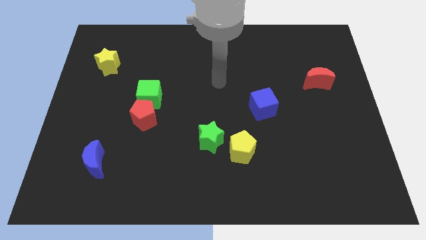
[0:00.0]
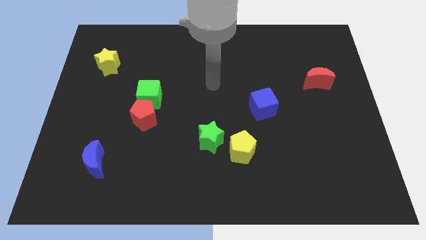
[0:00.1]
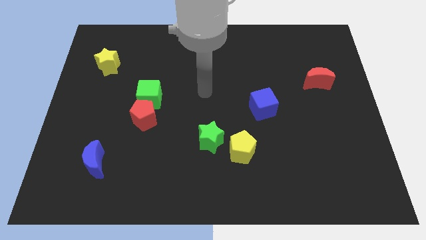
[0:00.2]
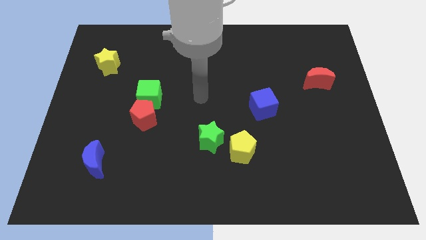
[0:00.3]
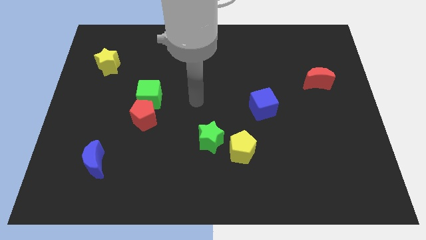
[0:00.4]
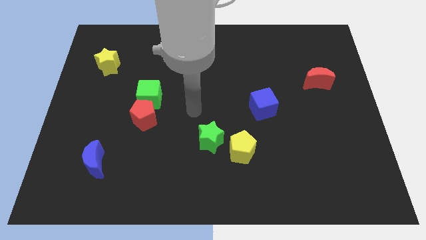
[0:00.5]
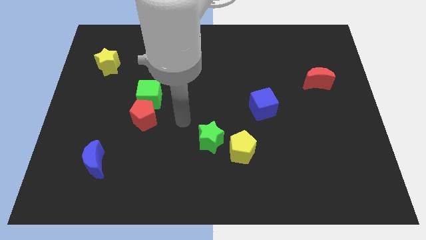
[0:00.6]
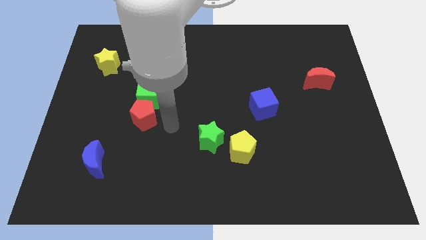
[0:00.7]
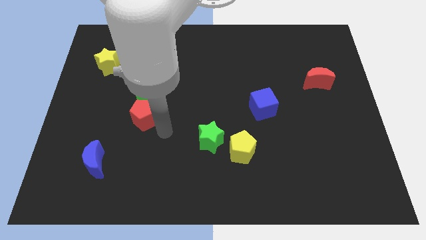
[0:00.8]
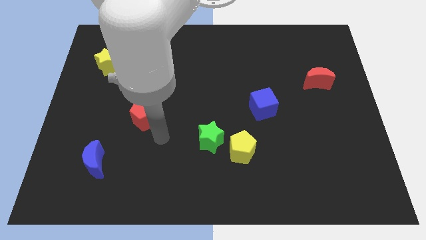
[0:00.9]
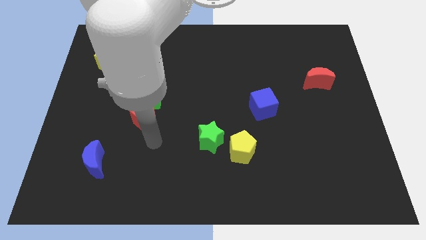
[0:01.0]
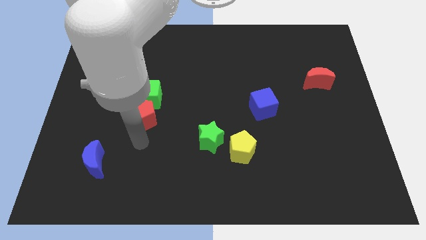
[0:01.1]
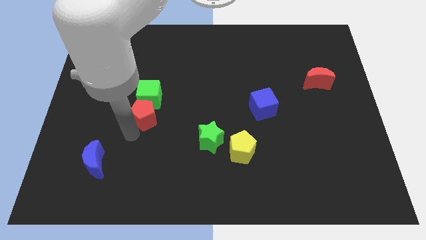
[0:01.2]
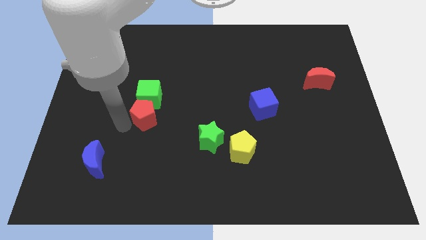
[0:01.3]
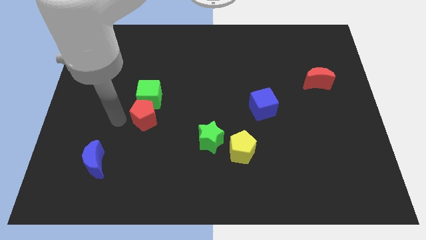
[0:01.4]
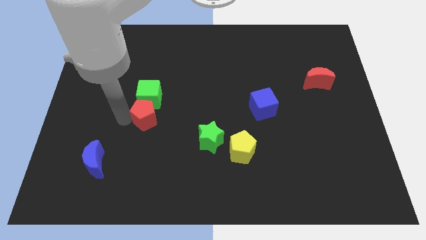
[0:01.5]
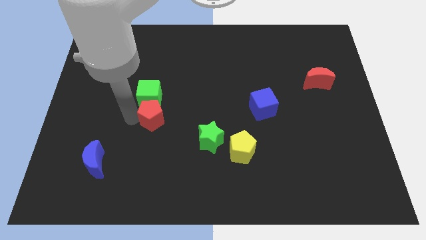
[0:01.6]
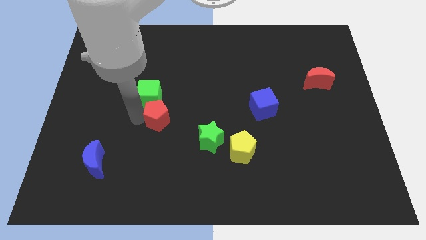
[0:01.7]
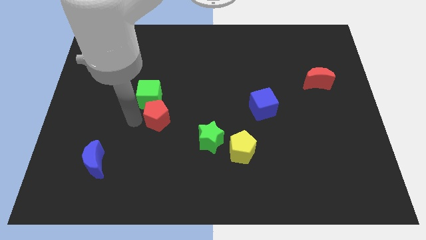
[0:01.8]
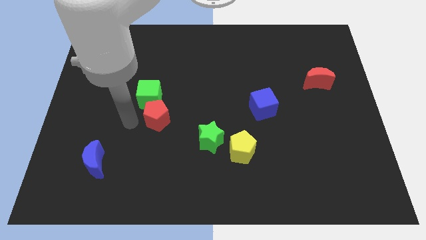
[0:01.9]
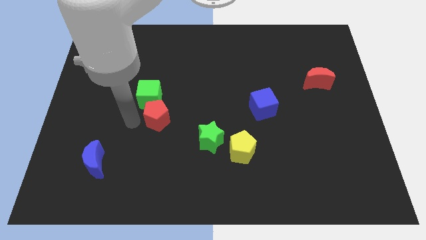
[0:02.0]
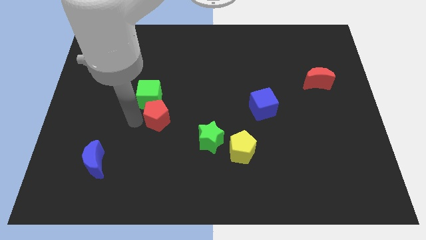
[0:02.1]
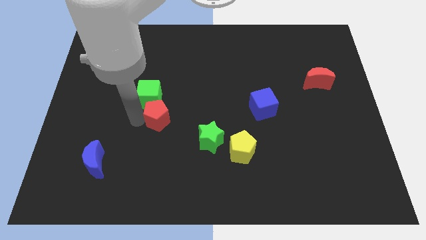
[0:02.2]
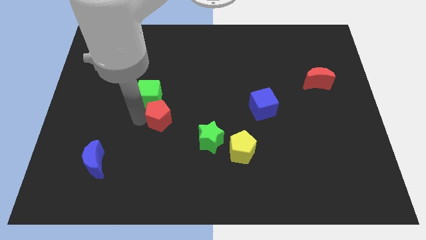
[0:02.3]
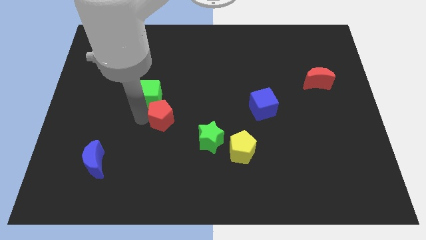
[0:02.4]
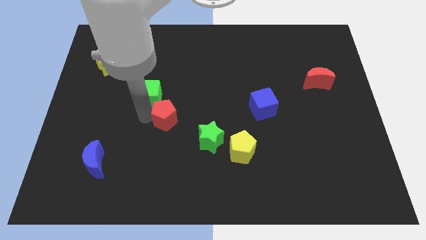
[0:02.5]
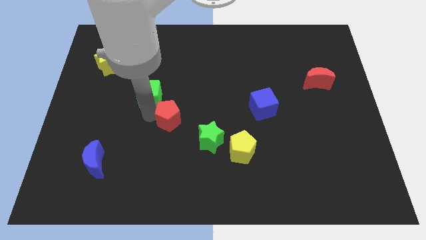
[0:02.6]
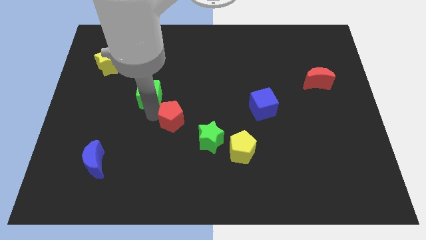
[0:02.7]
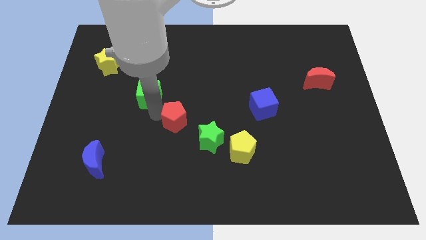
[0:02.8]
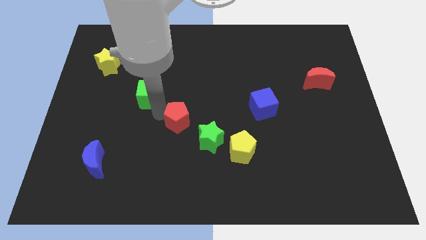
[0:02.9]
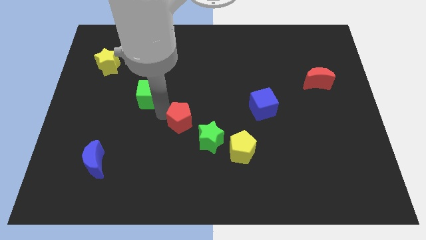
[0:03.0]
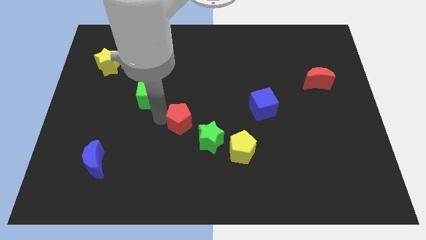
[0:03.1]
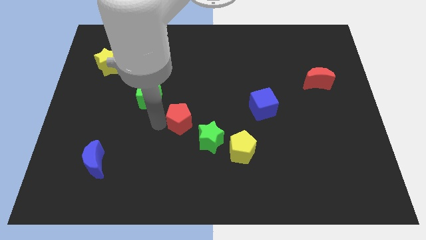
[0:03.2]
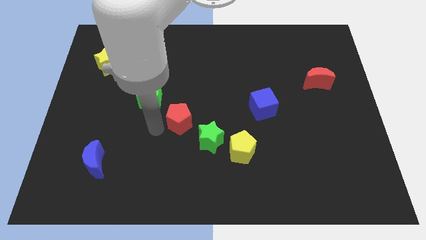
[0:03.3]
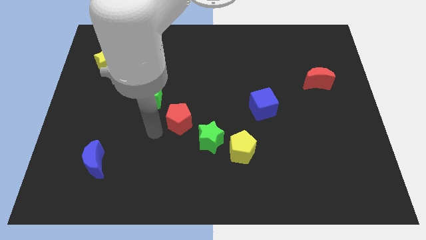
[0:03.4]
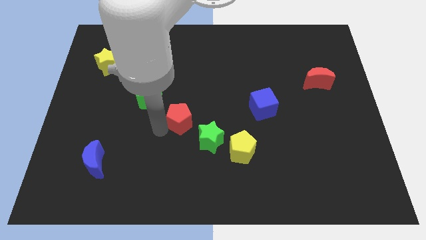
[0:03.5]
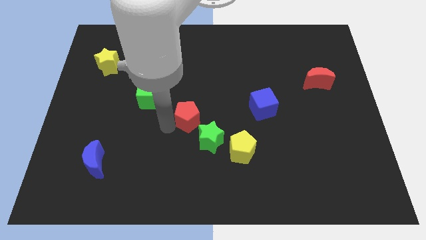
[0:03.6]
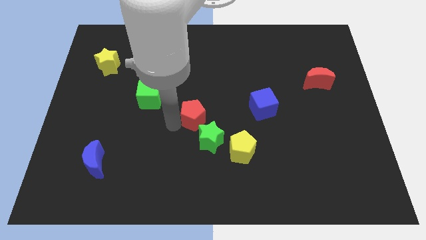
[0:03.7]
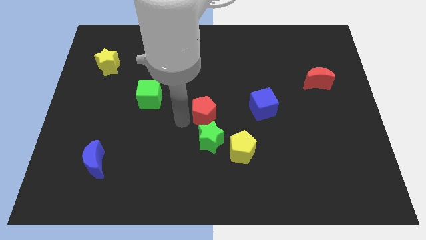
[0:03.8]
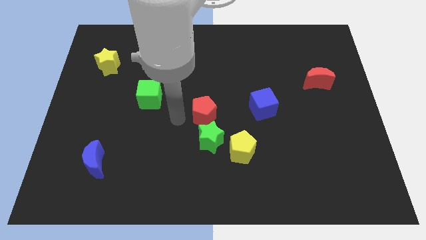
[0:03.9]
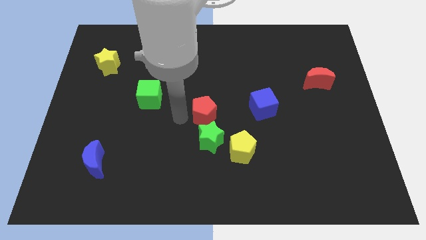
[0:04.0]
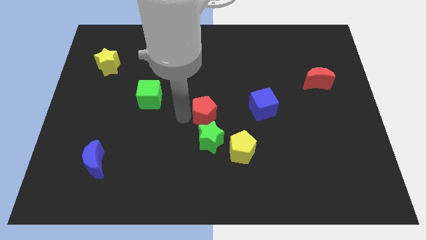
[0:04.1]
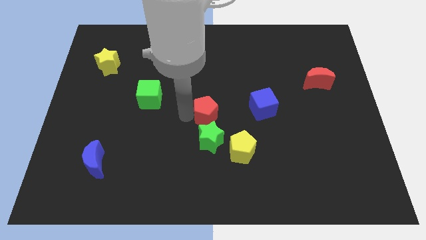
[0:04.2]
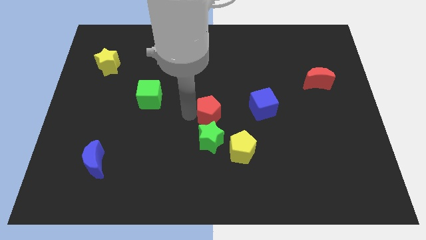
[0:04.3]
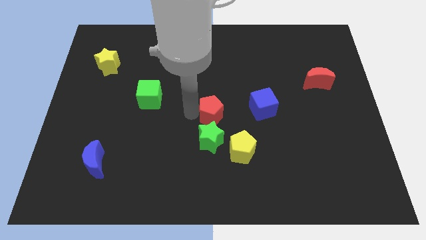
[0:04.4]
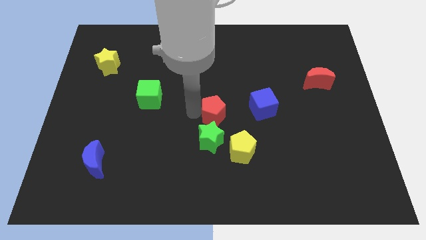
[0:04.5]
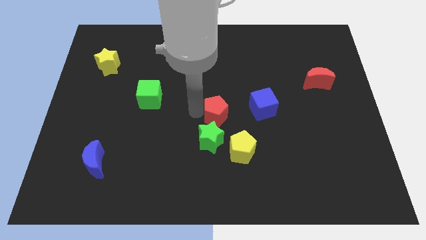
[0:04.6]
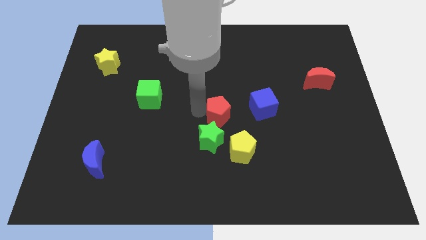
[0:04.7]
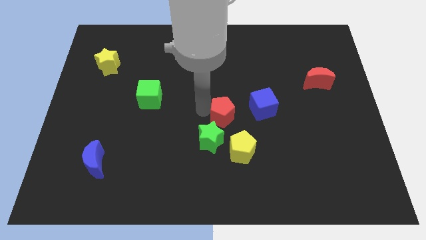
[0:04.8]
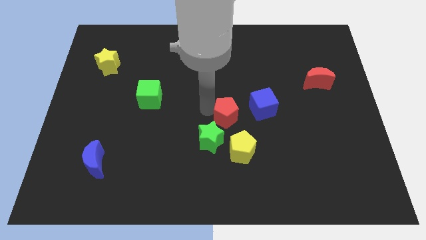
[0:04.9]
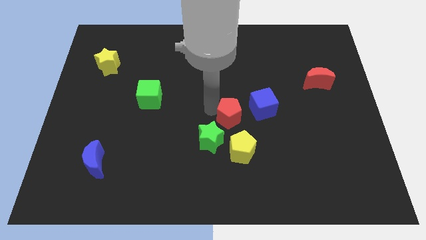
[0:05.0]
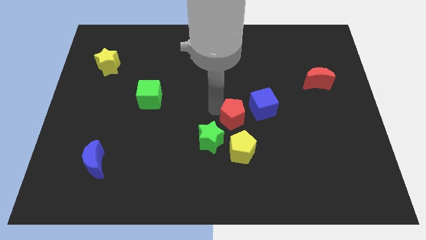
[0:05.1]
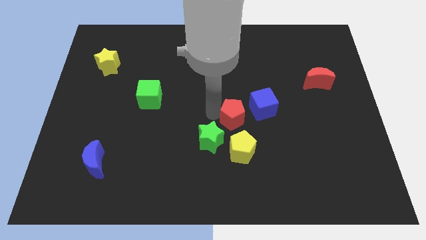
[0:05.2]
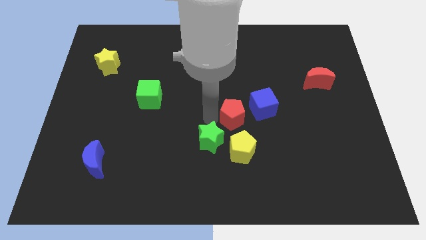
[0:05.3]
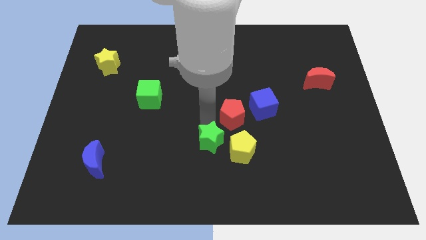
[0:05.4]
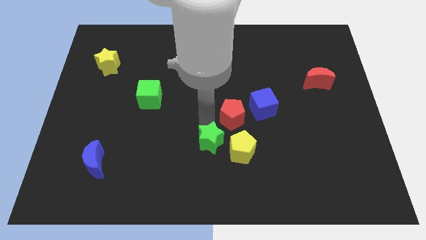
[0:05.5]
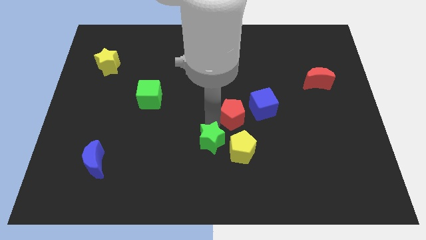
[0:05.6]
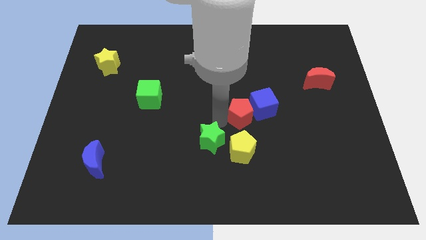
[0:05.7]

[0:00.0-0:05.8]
push the red pentagon to the blue cube

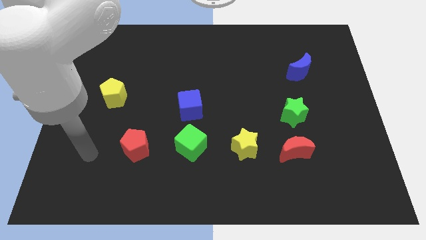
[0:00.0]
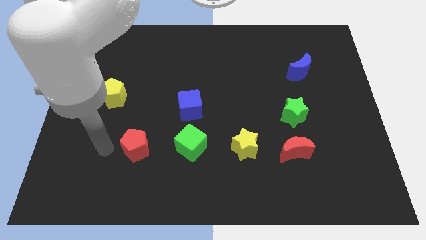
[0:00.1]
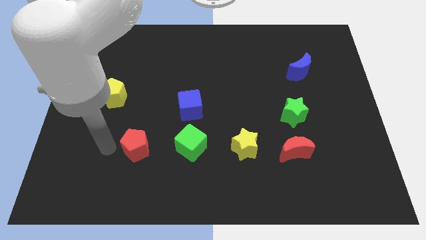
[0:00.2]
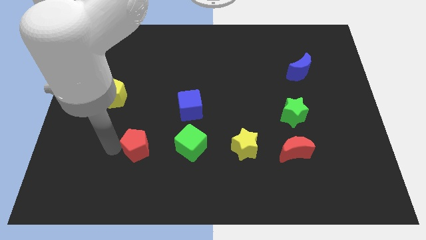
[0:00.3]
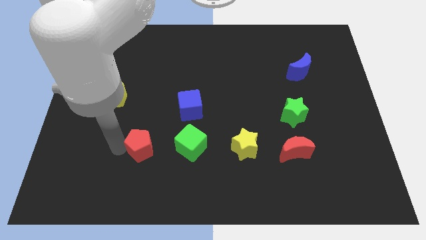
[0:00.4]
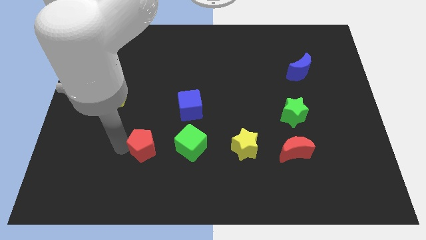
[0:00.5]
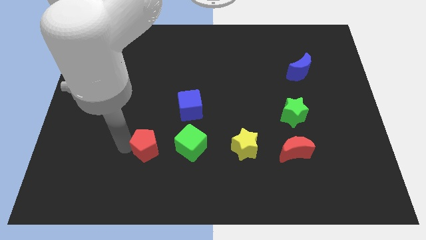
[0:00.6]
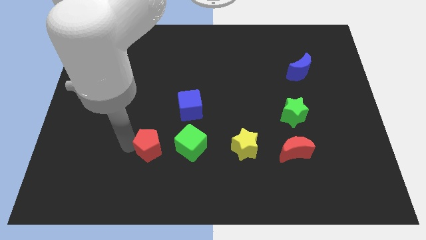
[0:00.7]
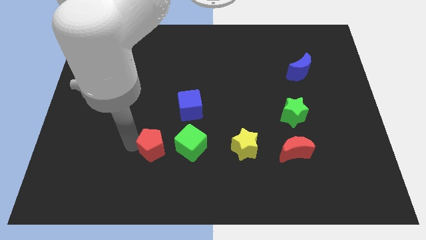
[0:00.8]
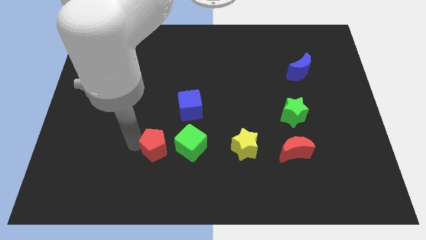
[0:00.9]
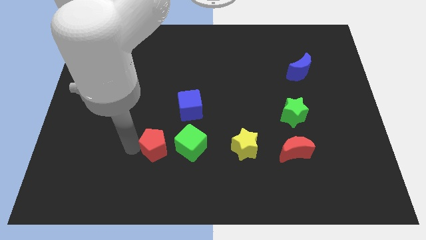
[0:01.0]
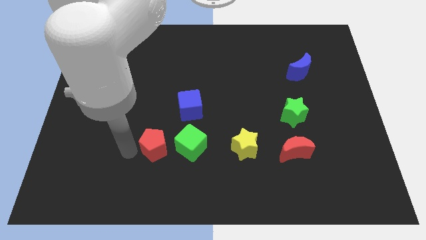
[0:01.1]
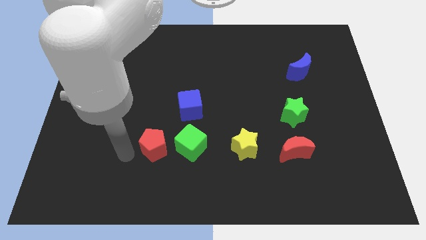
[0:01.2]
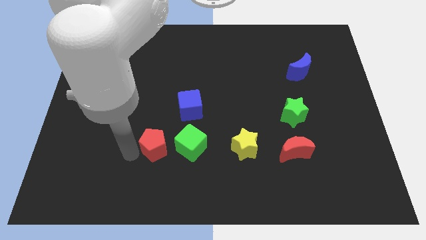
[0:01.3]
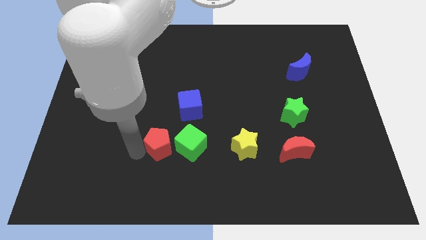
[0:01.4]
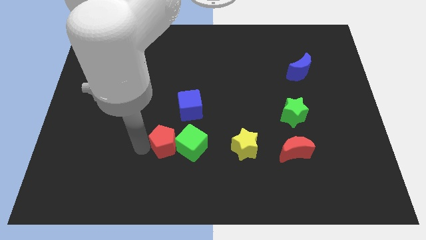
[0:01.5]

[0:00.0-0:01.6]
slide the red pentagon next to the green cube
